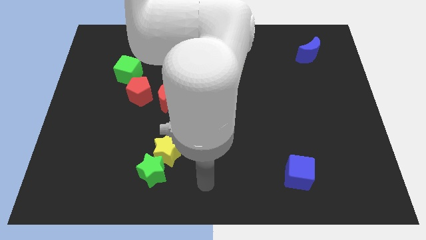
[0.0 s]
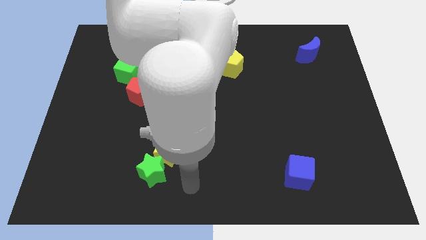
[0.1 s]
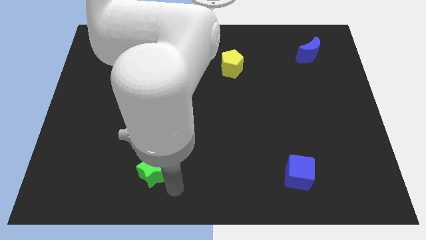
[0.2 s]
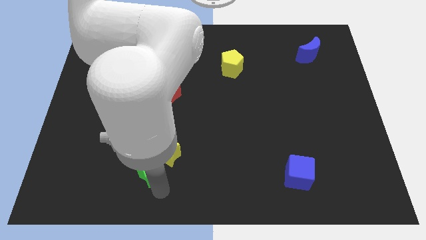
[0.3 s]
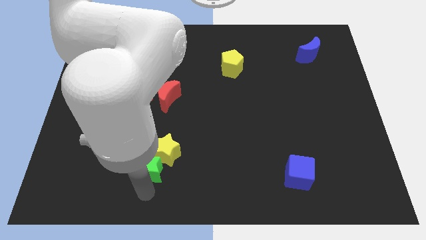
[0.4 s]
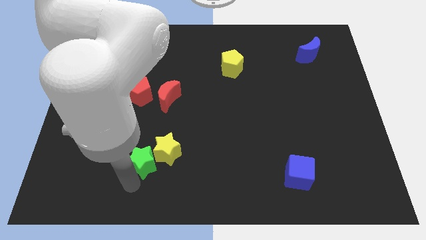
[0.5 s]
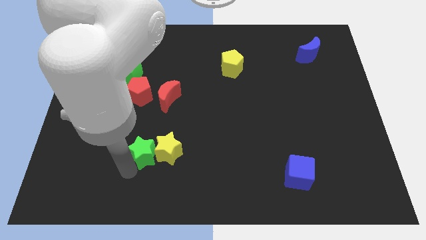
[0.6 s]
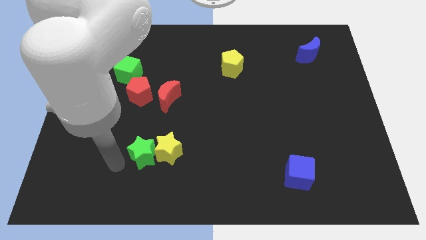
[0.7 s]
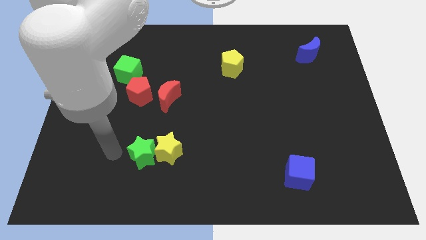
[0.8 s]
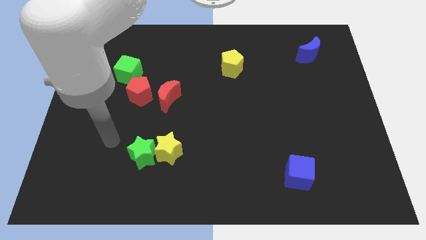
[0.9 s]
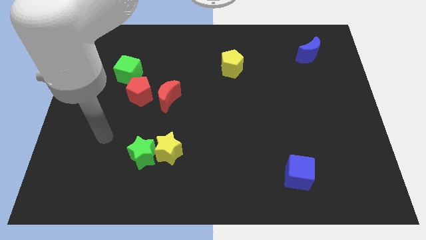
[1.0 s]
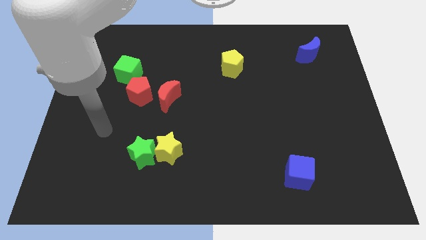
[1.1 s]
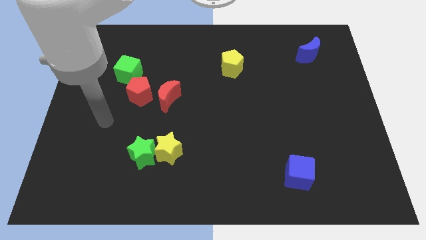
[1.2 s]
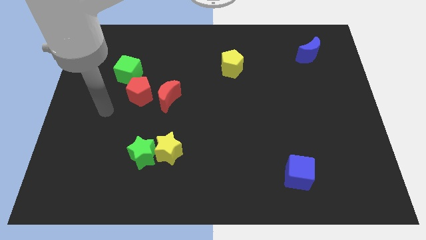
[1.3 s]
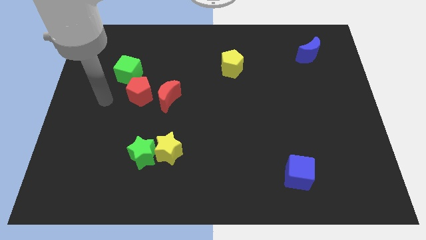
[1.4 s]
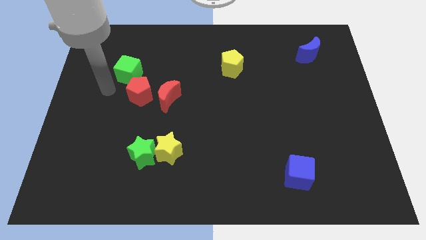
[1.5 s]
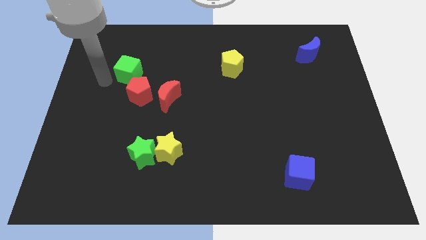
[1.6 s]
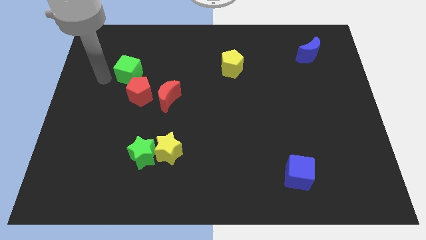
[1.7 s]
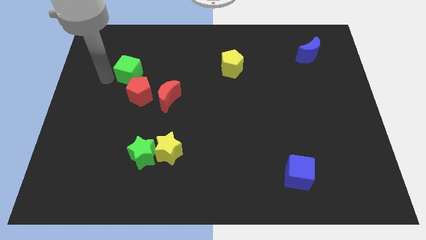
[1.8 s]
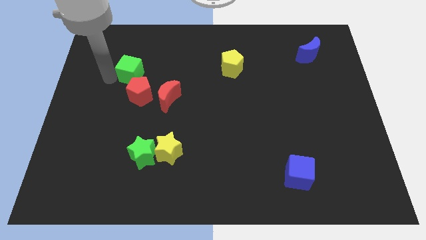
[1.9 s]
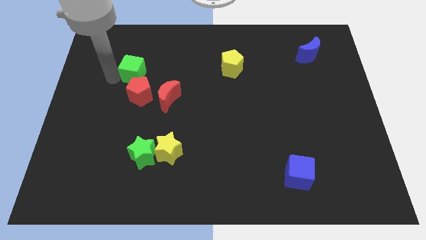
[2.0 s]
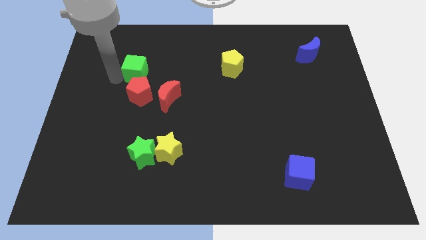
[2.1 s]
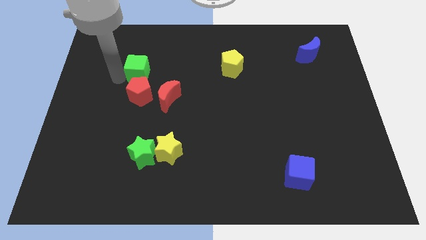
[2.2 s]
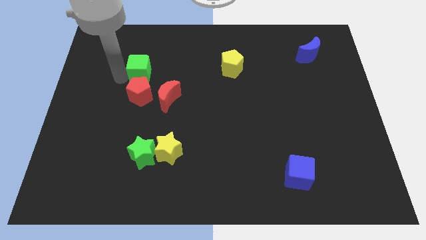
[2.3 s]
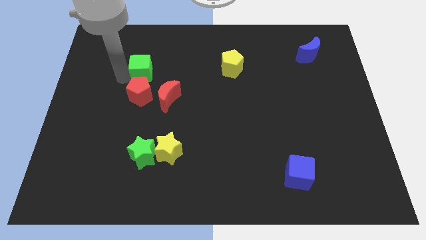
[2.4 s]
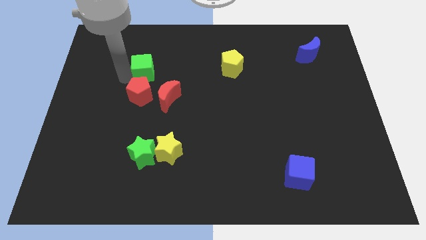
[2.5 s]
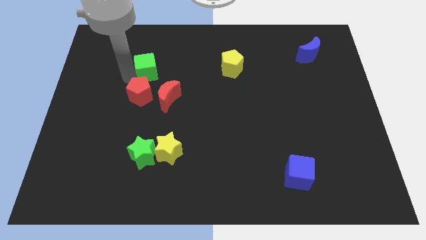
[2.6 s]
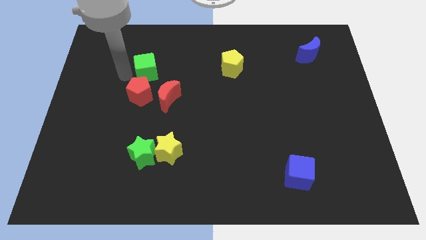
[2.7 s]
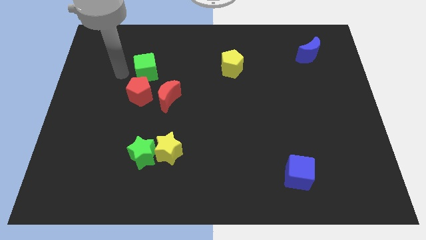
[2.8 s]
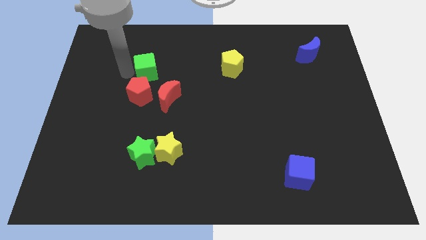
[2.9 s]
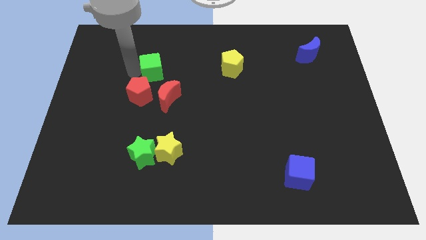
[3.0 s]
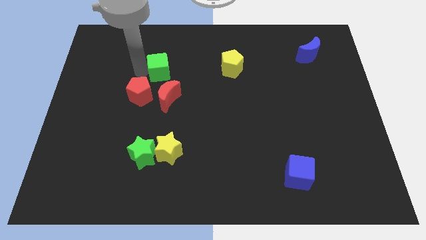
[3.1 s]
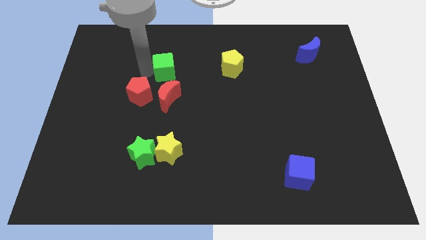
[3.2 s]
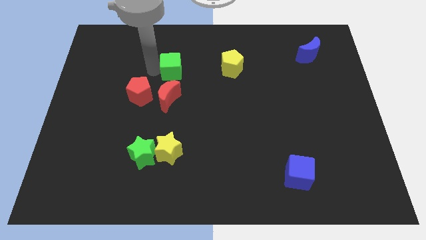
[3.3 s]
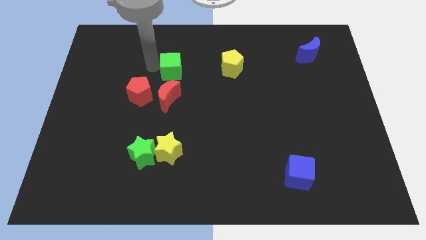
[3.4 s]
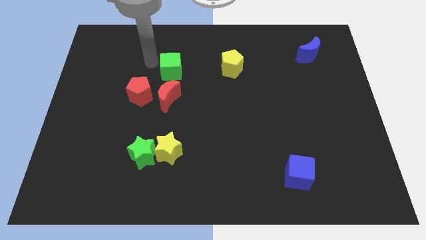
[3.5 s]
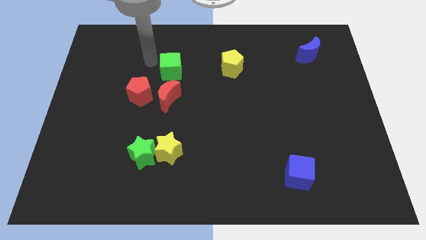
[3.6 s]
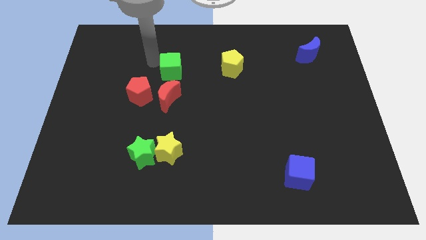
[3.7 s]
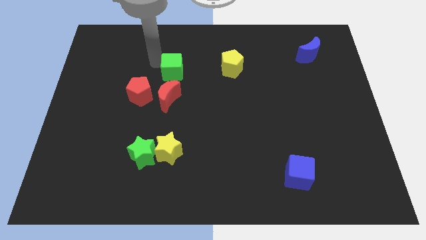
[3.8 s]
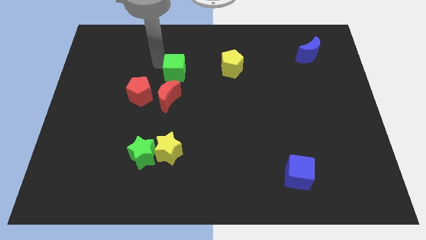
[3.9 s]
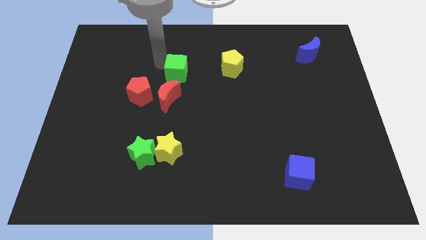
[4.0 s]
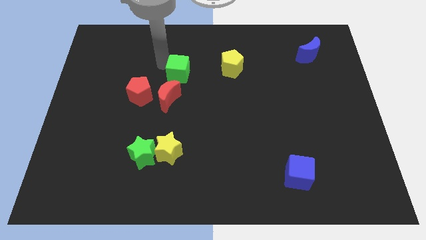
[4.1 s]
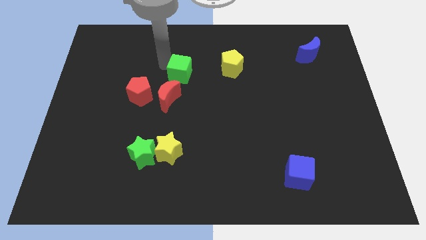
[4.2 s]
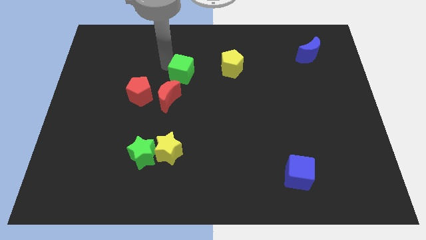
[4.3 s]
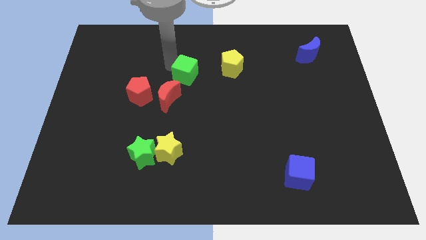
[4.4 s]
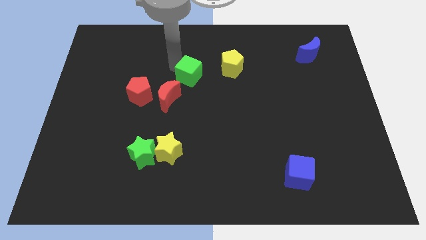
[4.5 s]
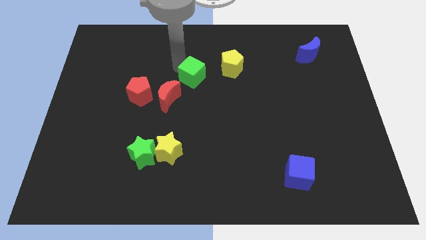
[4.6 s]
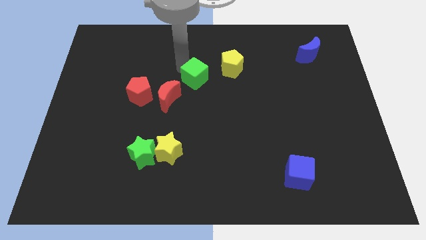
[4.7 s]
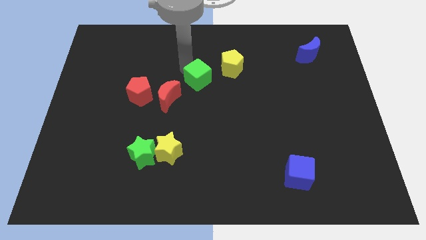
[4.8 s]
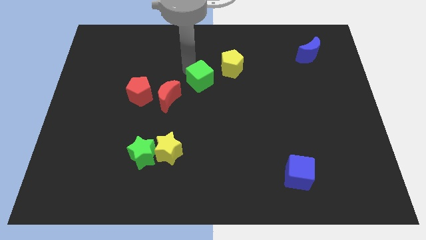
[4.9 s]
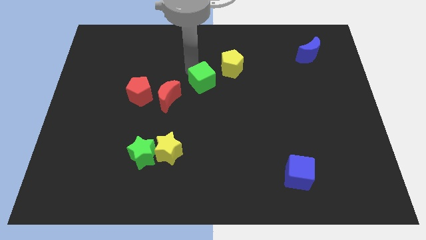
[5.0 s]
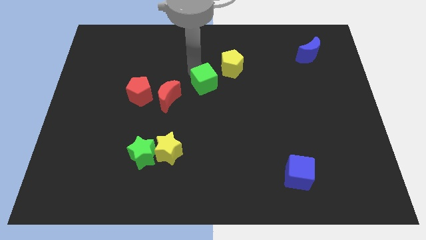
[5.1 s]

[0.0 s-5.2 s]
move the green cube just right of the red moon

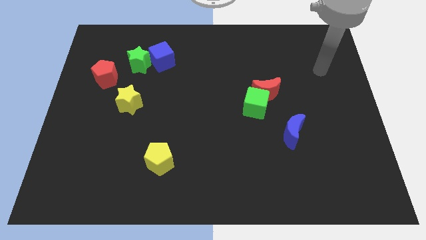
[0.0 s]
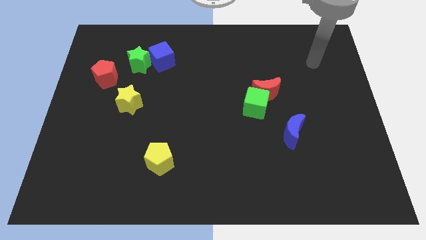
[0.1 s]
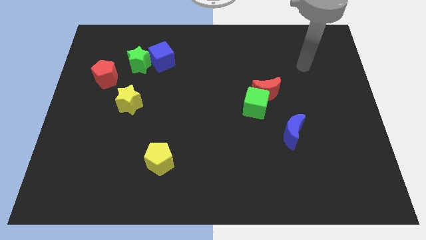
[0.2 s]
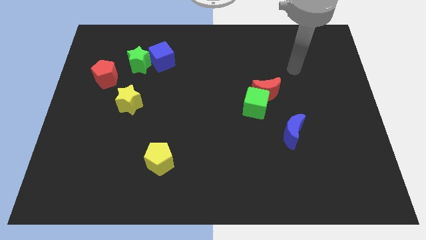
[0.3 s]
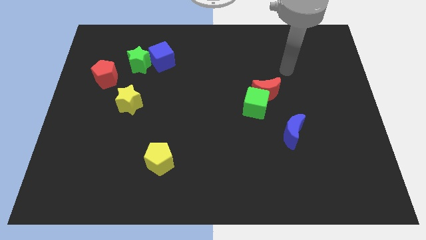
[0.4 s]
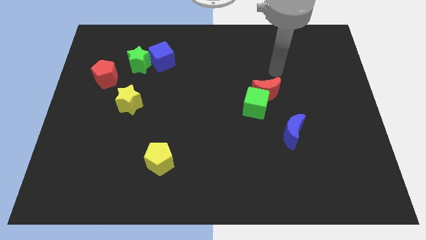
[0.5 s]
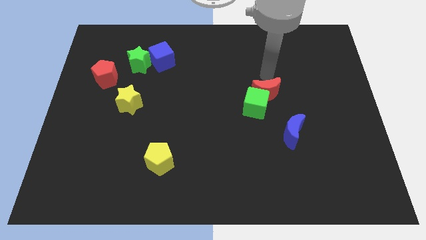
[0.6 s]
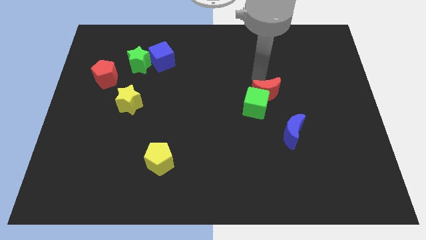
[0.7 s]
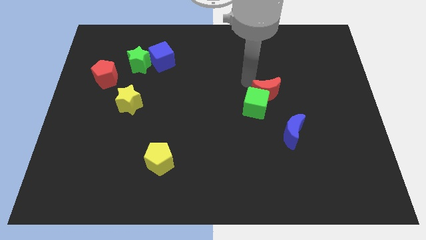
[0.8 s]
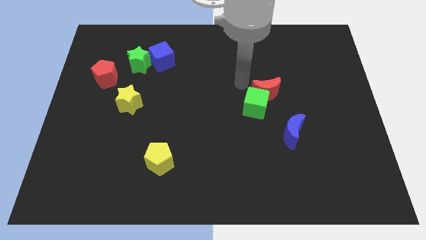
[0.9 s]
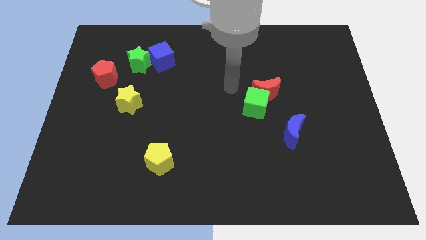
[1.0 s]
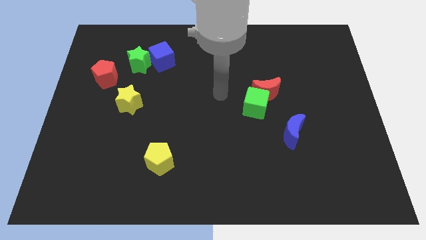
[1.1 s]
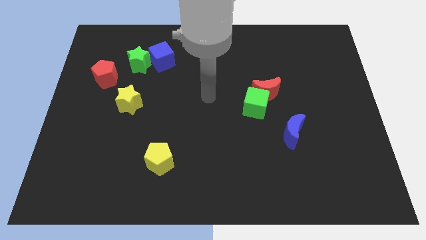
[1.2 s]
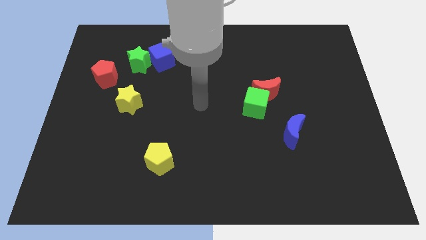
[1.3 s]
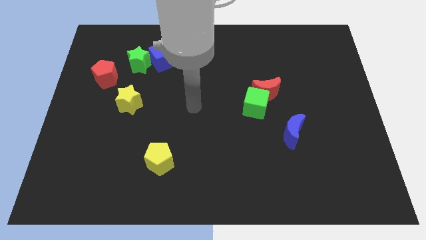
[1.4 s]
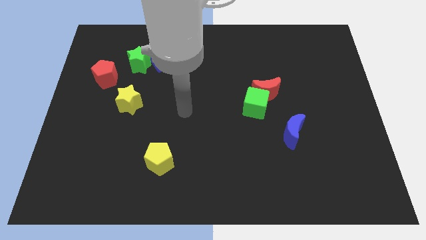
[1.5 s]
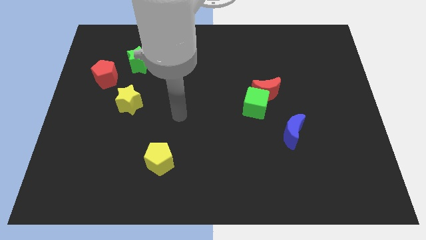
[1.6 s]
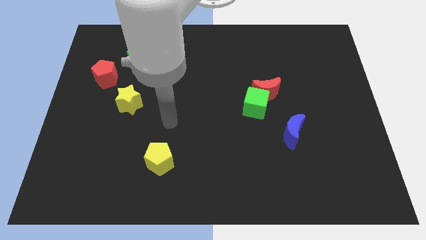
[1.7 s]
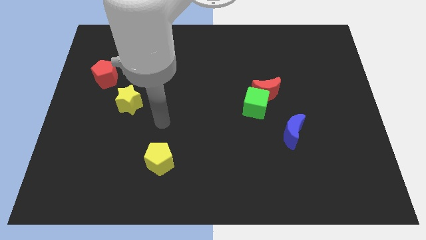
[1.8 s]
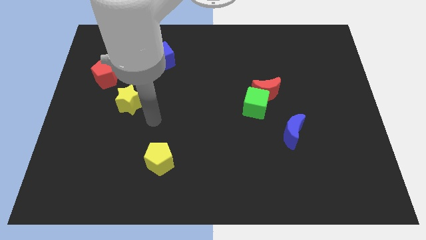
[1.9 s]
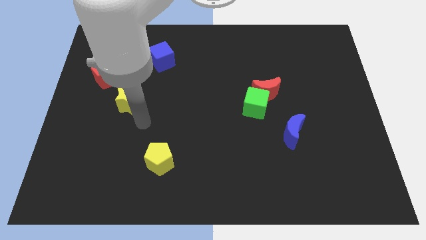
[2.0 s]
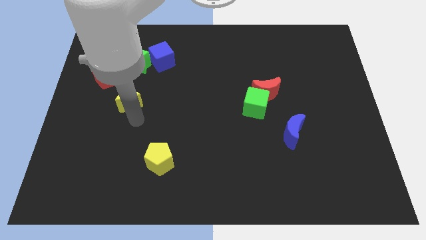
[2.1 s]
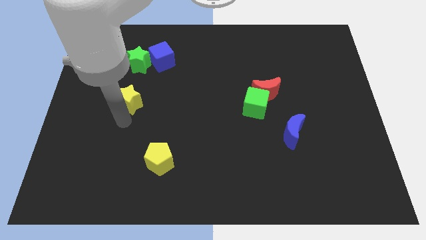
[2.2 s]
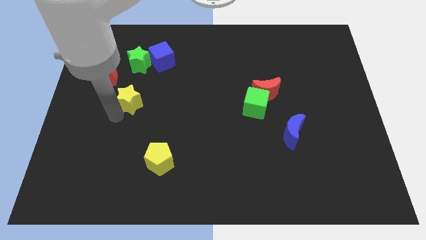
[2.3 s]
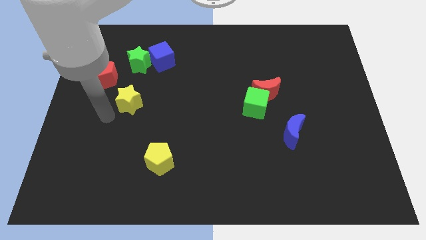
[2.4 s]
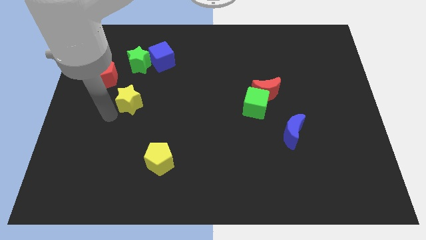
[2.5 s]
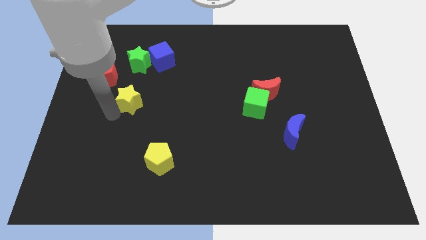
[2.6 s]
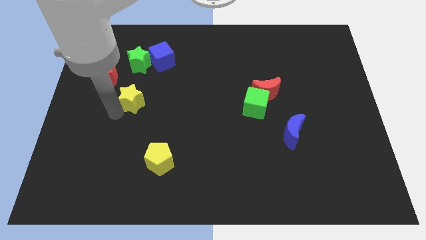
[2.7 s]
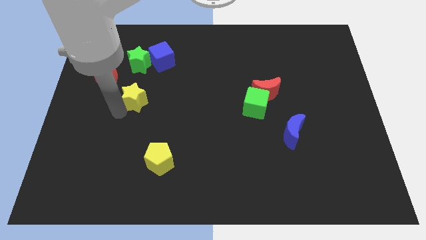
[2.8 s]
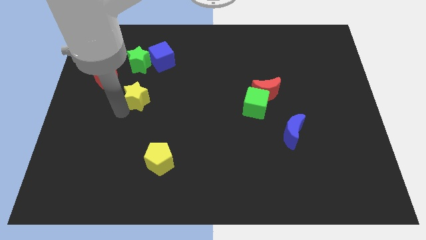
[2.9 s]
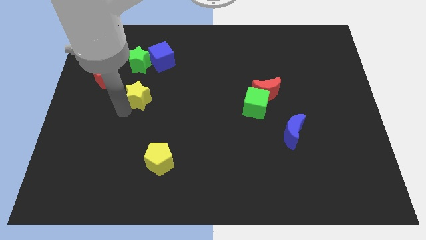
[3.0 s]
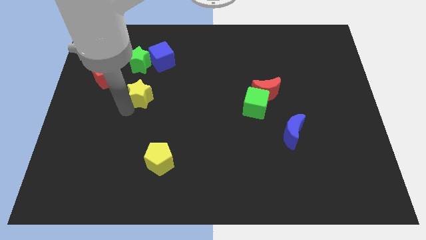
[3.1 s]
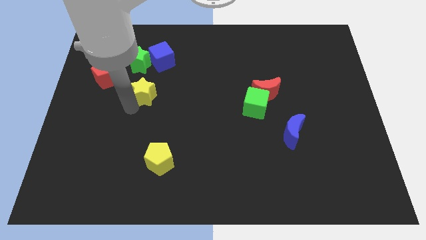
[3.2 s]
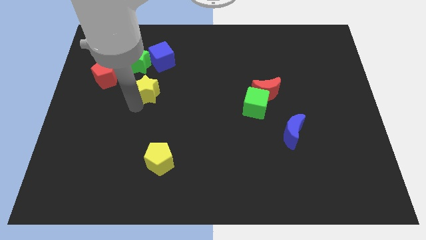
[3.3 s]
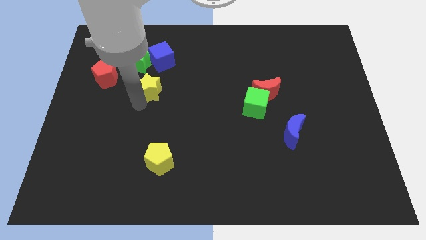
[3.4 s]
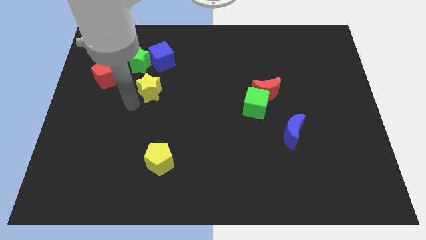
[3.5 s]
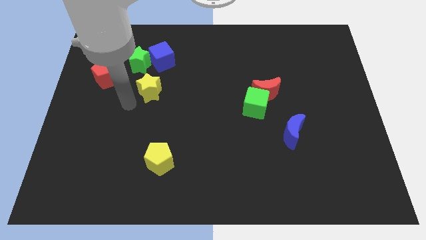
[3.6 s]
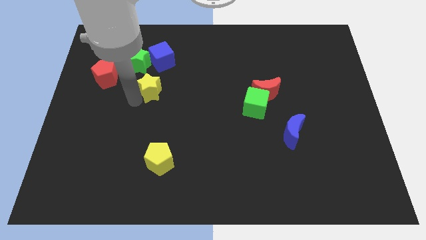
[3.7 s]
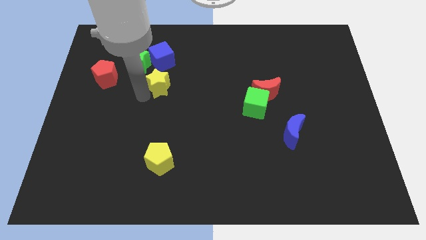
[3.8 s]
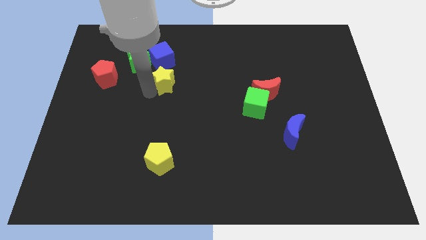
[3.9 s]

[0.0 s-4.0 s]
put the yellow star to the bottom right side of the blue cube
